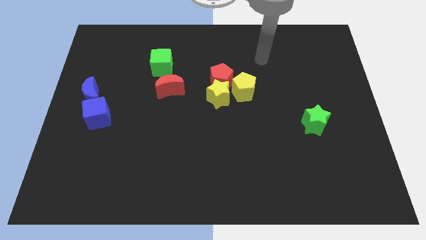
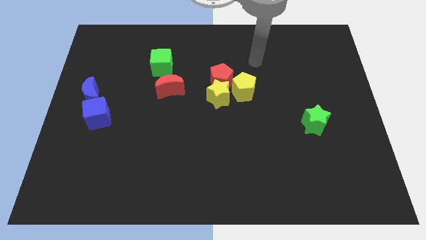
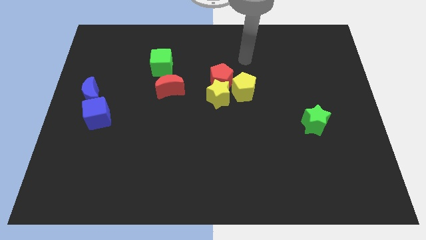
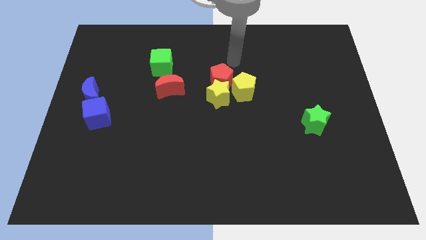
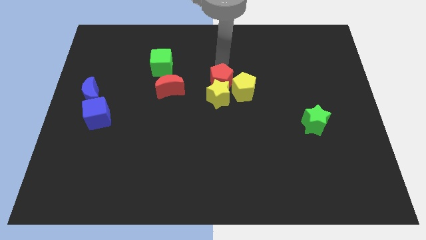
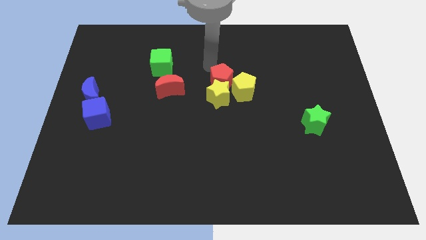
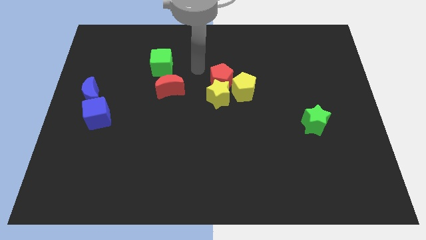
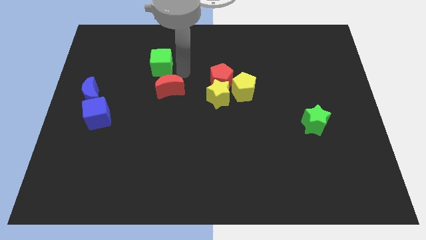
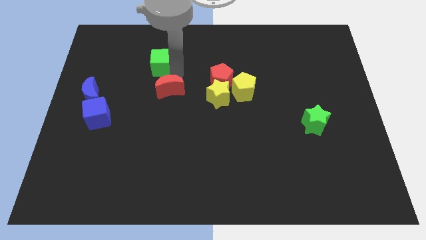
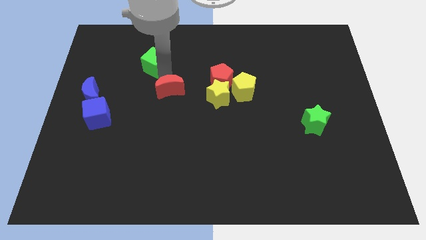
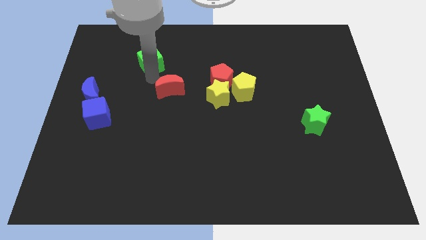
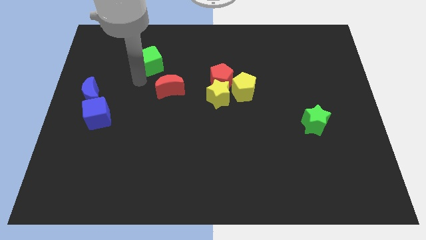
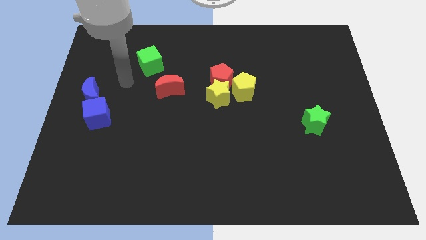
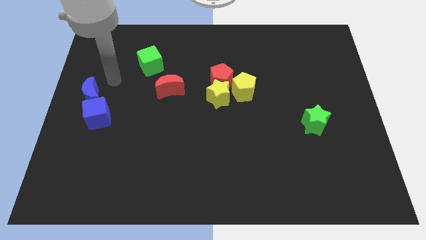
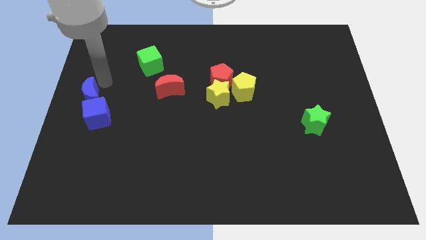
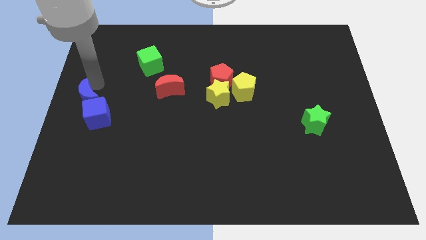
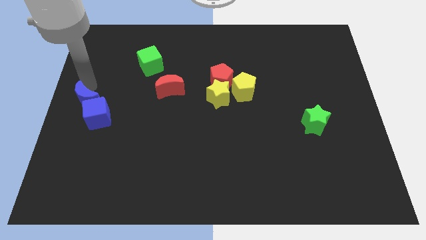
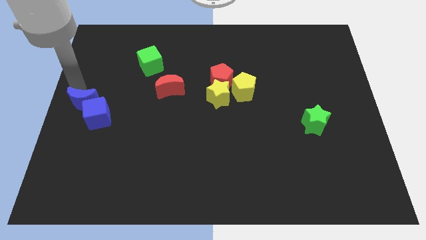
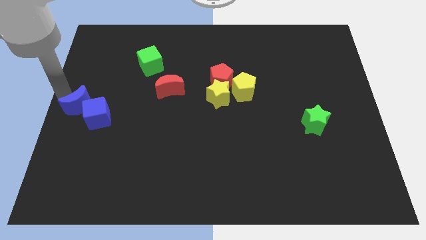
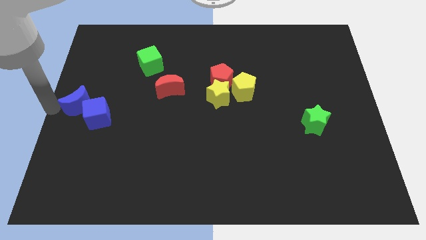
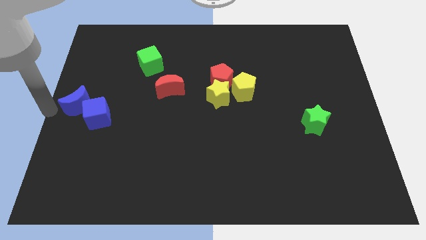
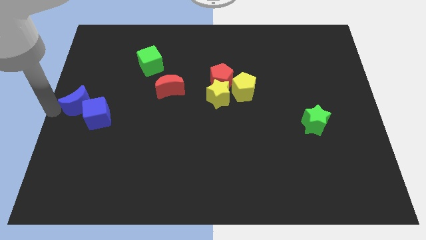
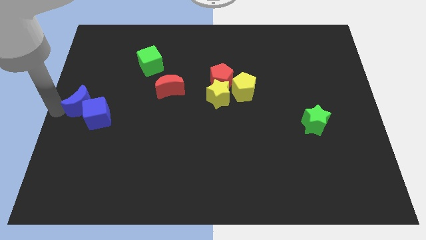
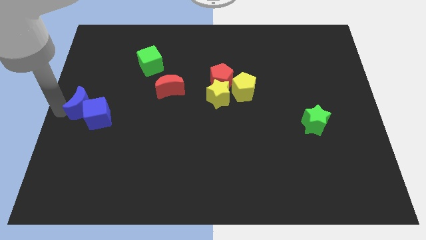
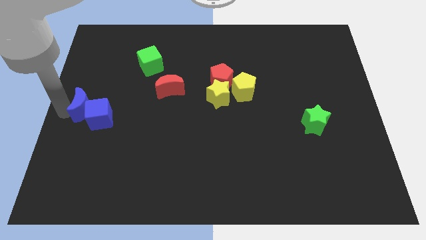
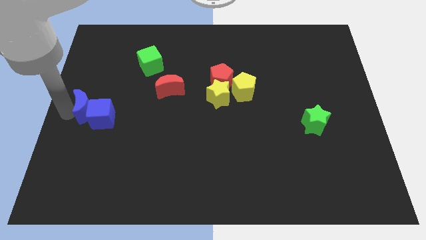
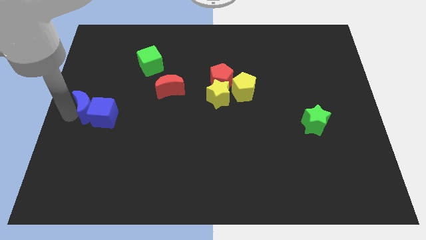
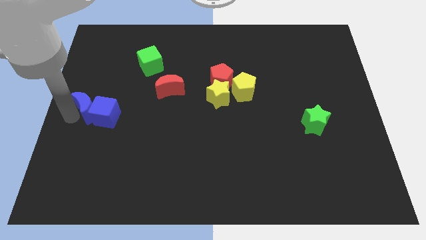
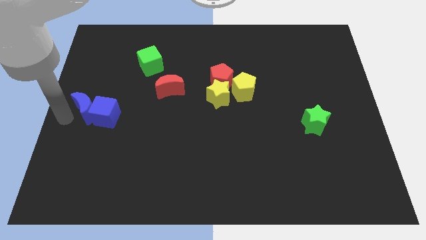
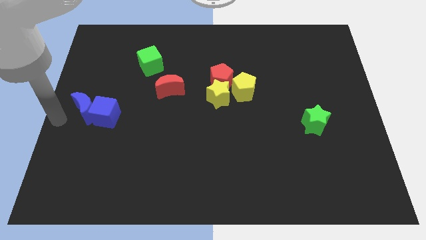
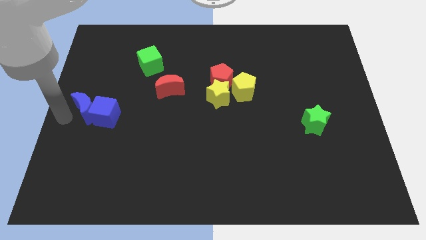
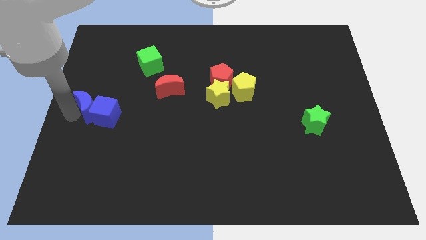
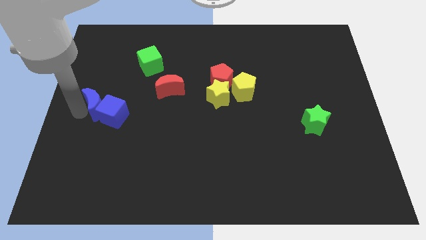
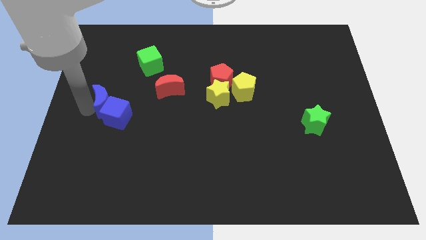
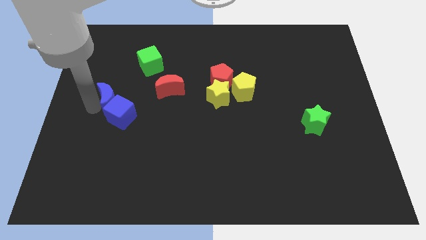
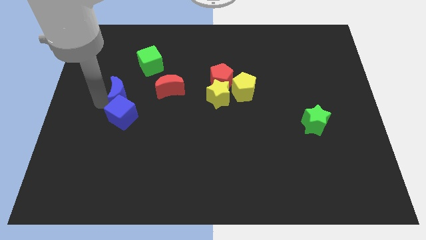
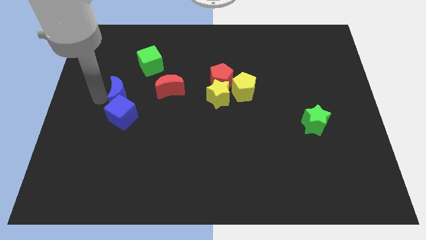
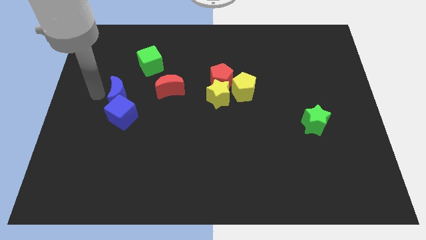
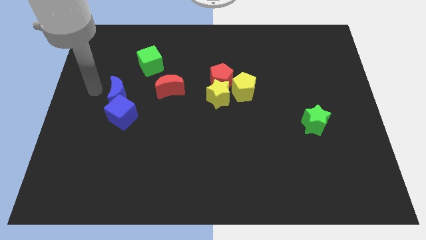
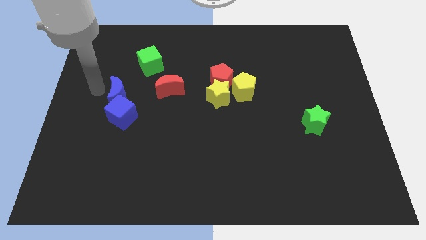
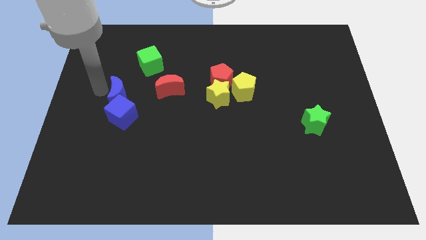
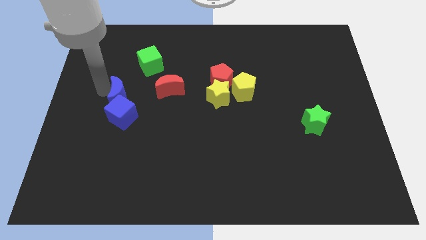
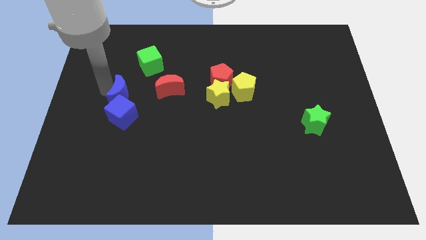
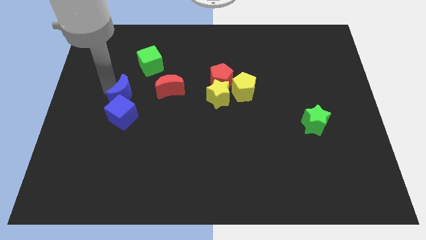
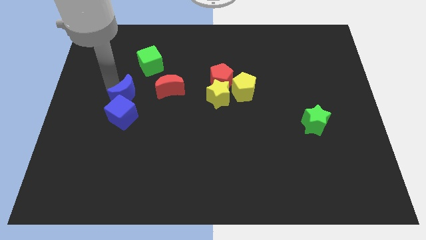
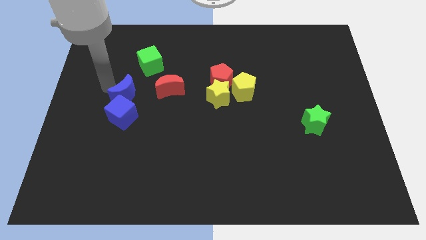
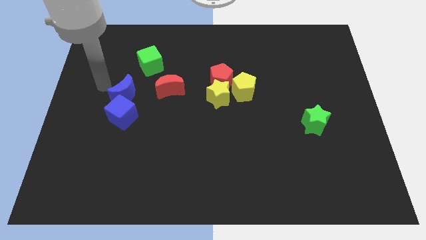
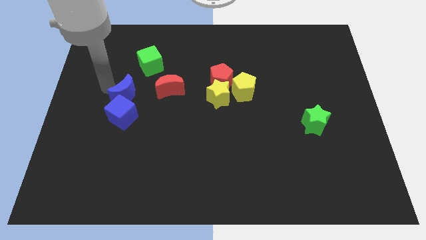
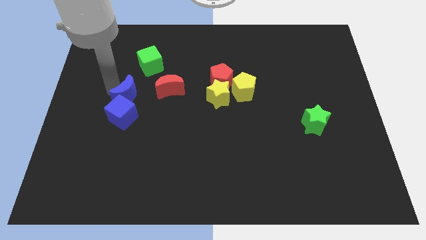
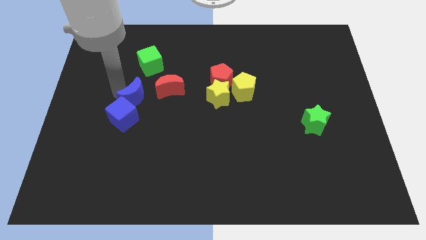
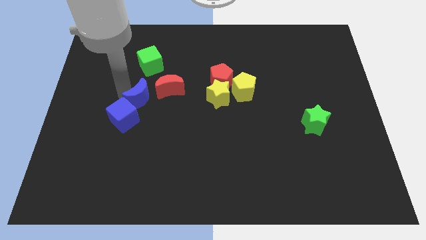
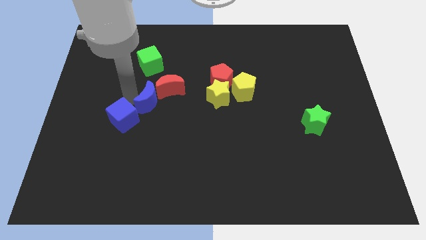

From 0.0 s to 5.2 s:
move the blue moon close to the red moon

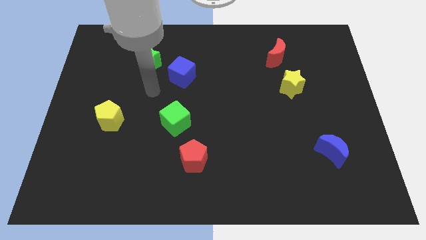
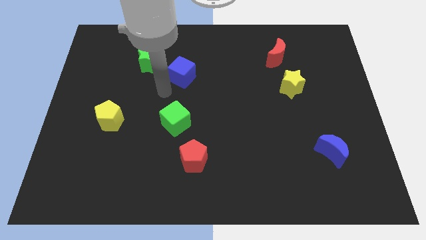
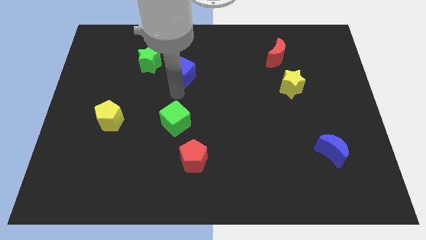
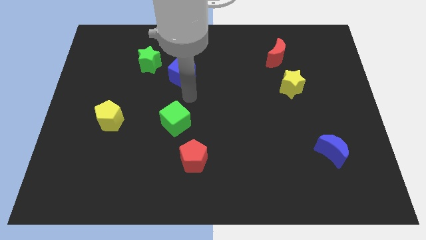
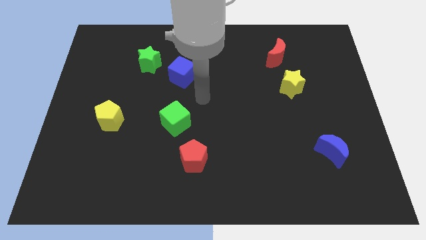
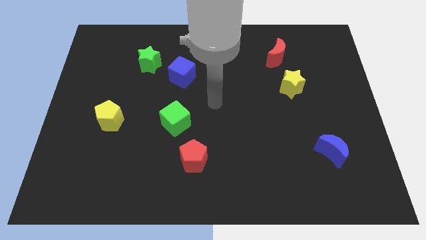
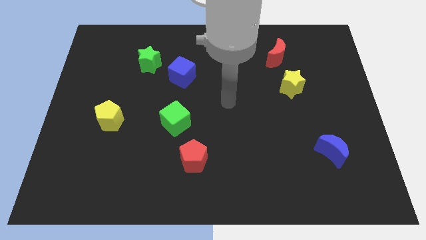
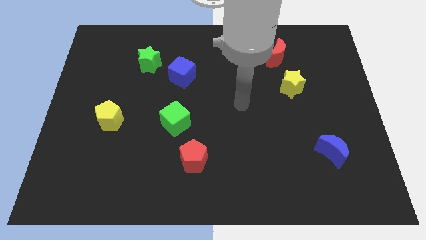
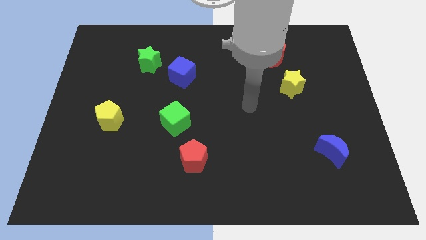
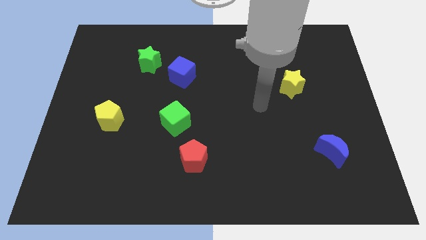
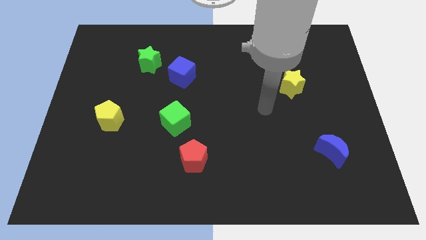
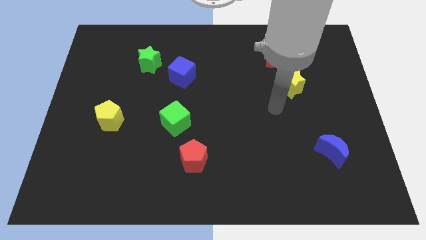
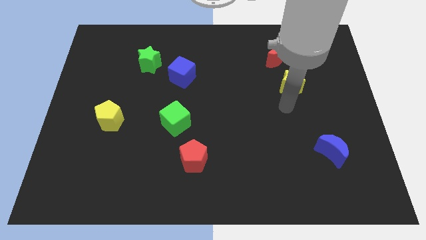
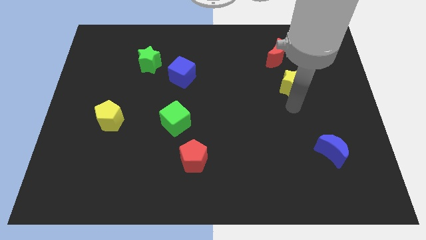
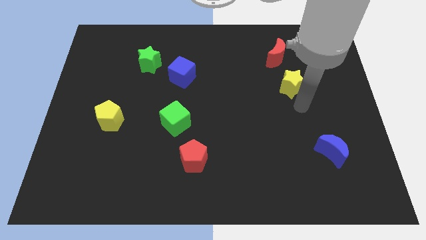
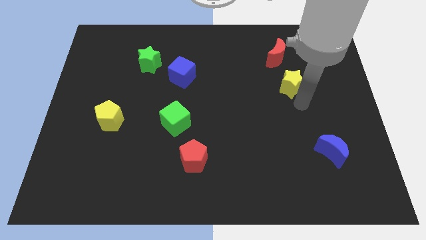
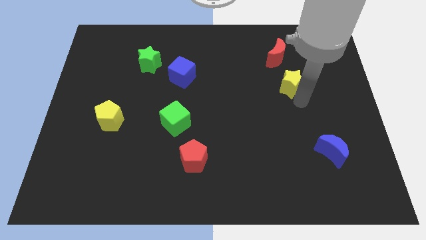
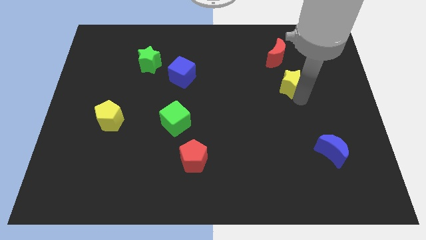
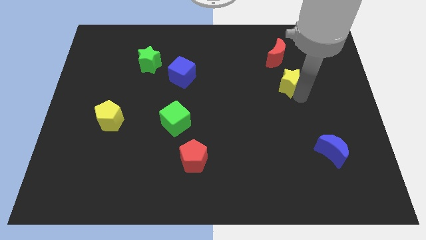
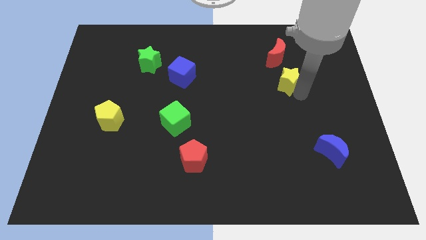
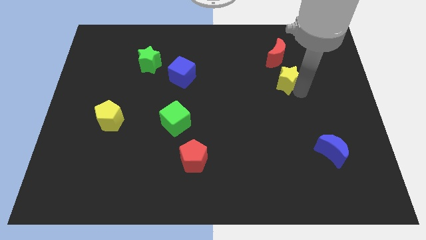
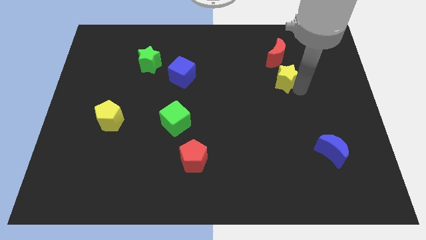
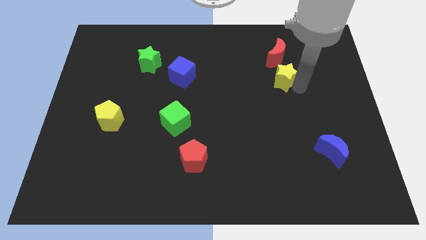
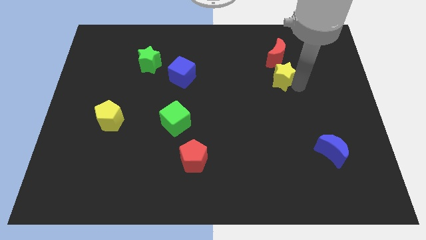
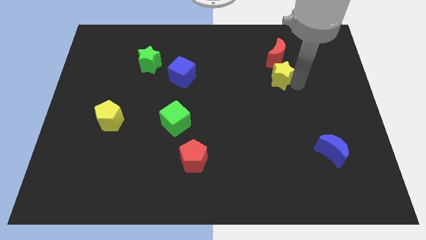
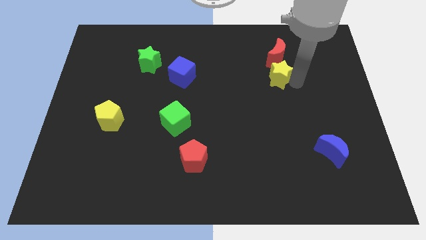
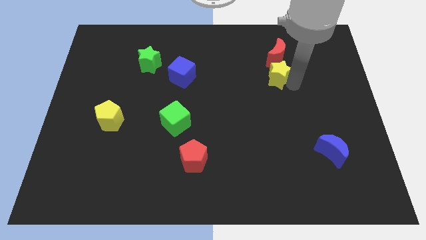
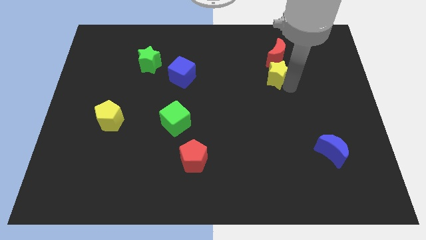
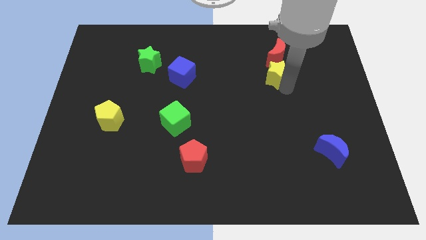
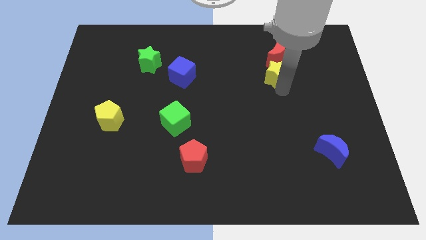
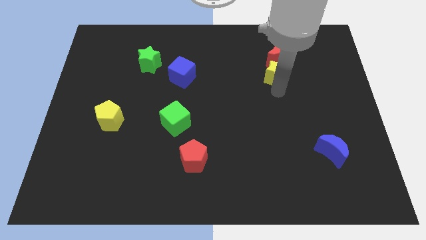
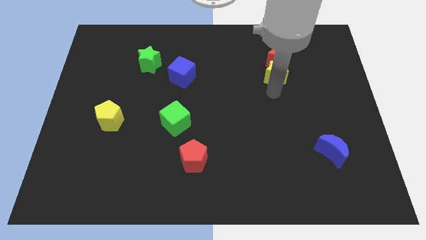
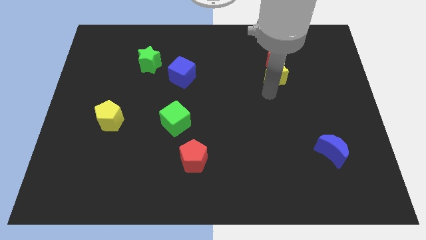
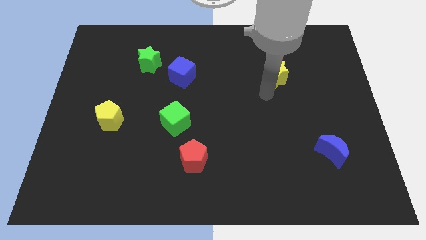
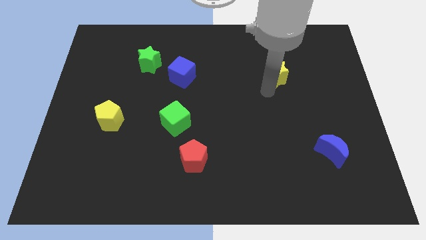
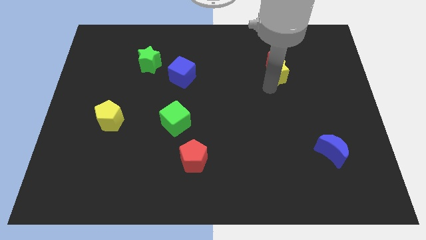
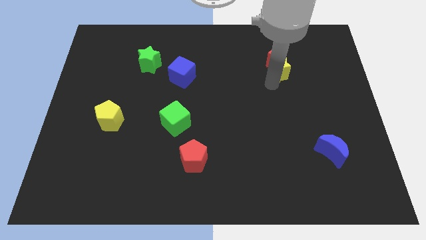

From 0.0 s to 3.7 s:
slide the yellow star next to the red moon
